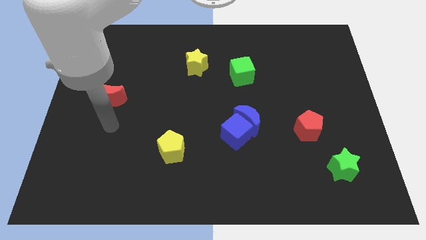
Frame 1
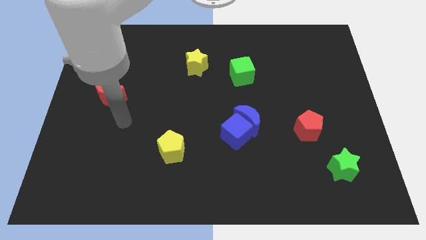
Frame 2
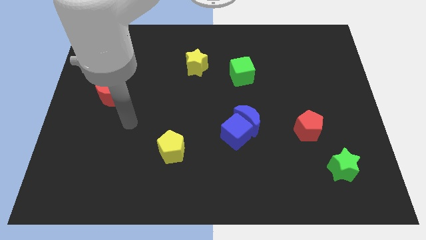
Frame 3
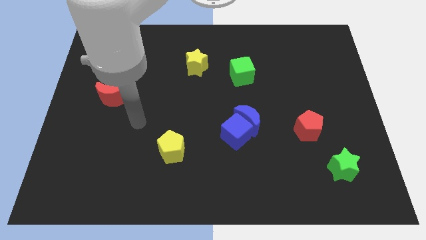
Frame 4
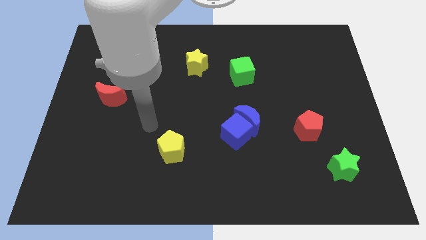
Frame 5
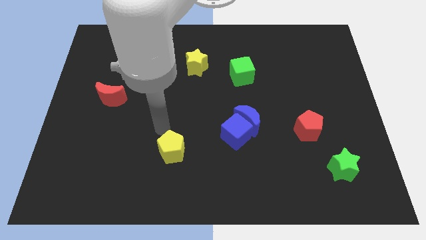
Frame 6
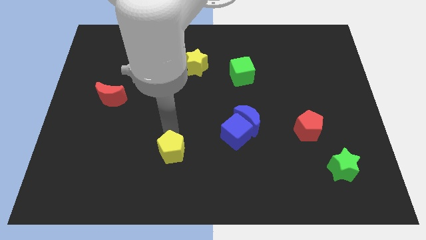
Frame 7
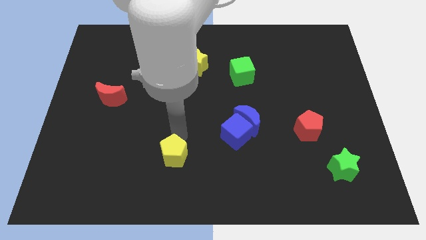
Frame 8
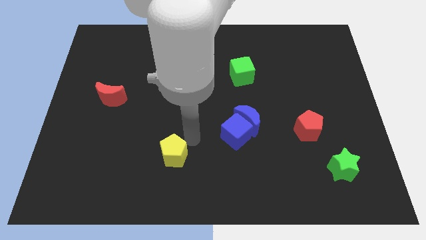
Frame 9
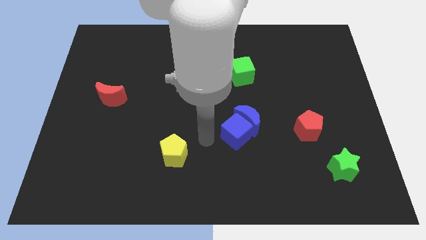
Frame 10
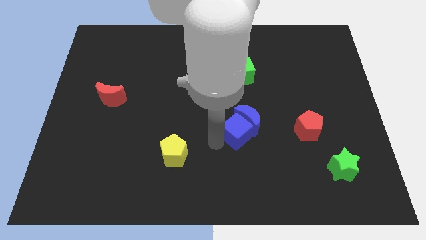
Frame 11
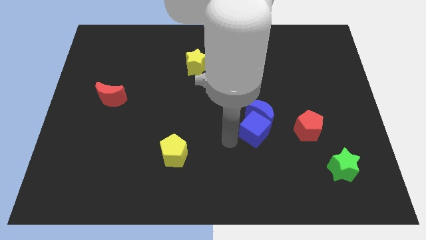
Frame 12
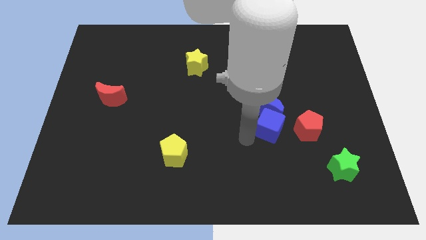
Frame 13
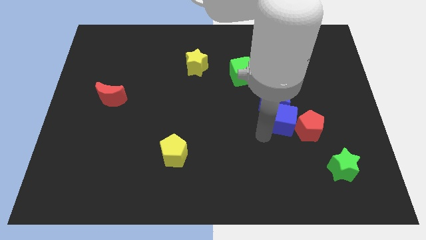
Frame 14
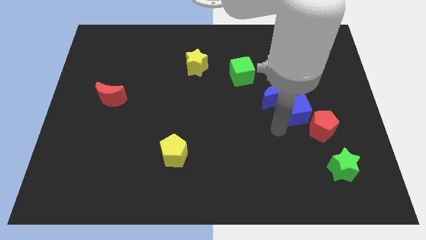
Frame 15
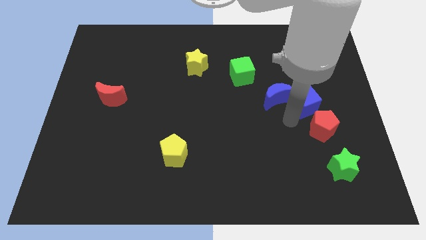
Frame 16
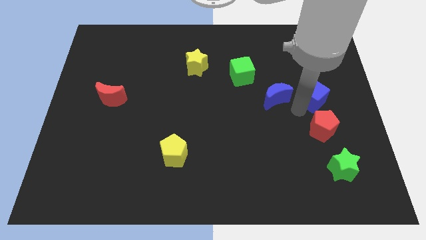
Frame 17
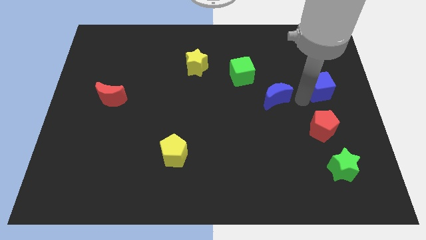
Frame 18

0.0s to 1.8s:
pull the blue moon apart from the blue cube

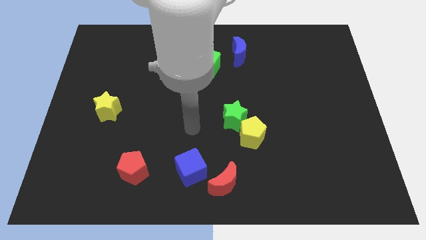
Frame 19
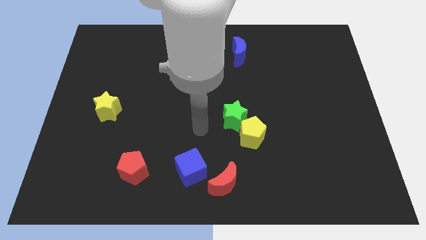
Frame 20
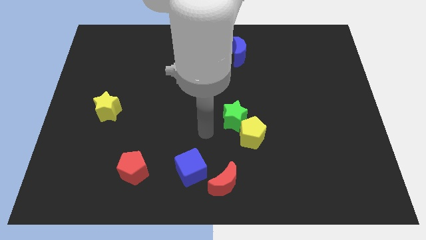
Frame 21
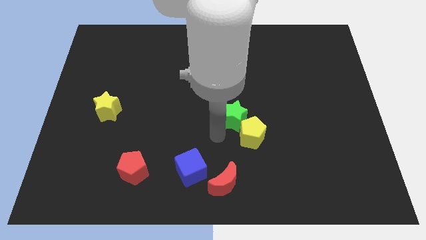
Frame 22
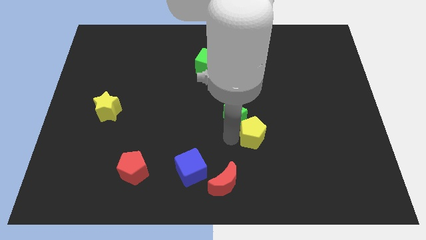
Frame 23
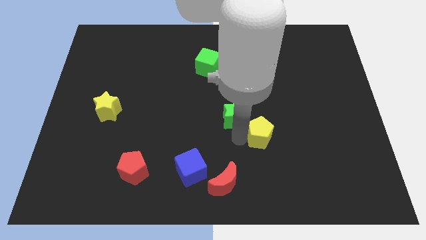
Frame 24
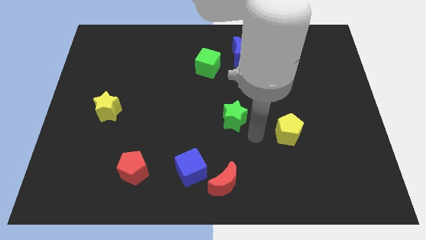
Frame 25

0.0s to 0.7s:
move the green star away from the yellow pentagon

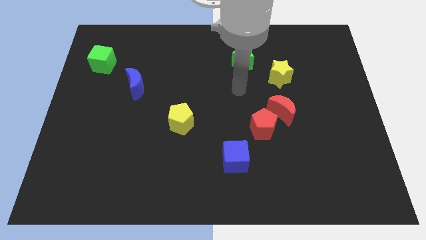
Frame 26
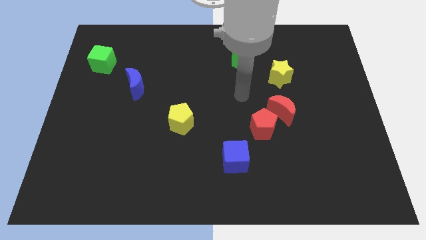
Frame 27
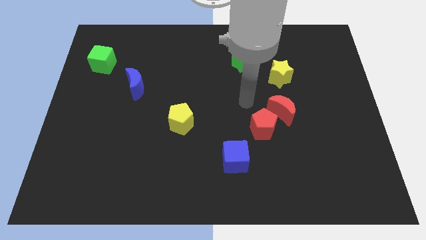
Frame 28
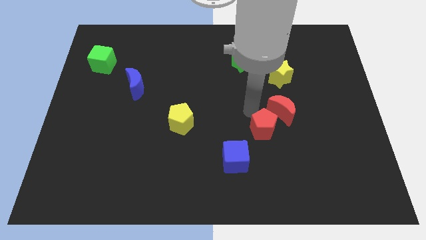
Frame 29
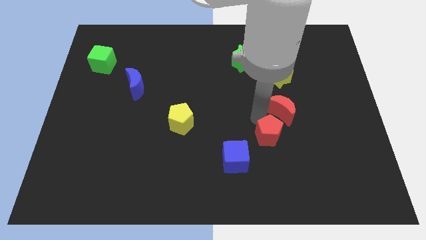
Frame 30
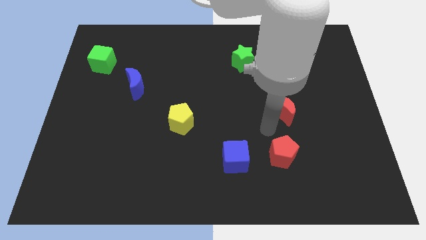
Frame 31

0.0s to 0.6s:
separate the red moon from the red pentagon

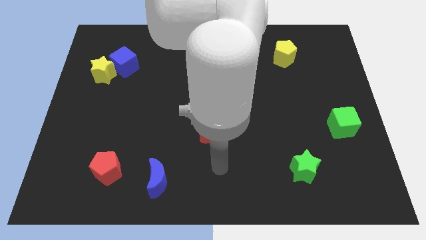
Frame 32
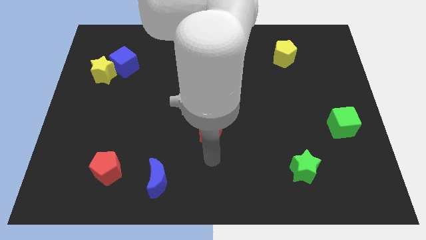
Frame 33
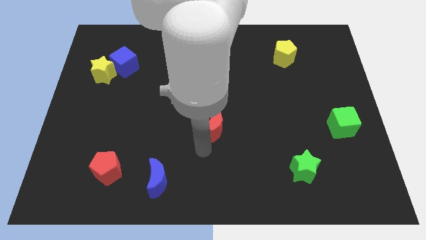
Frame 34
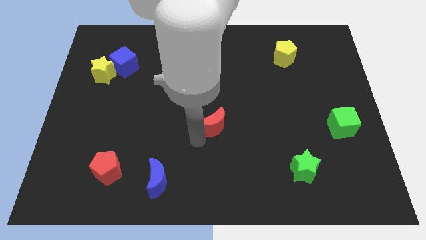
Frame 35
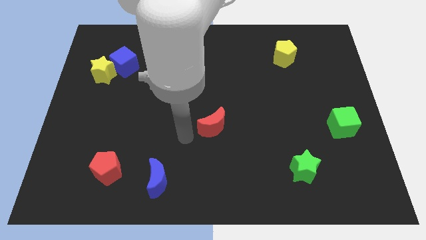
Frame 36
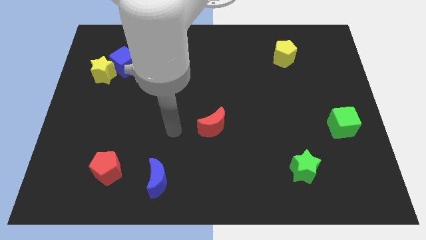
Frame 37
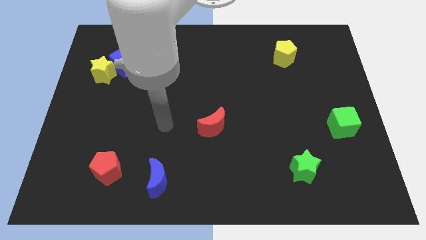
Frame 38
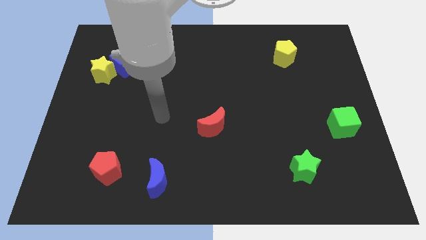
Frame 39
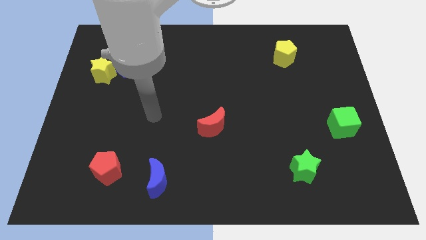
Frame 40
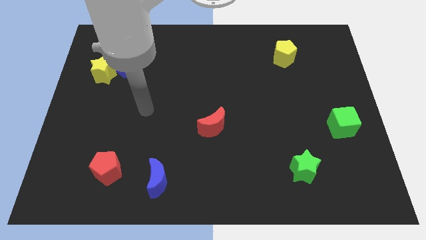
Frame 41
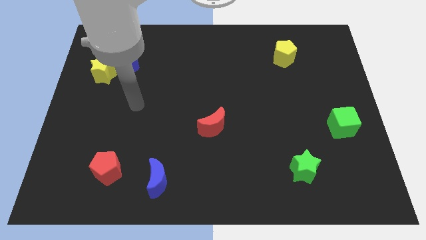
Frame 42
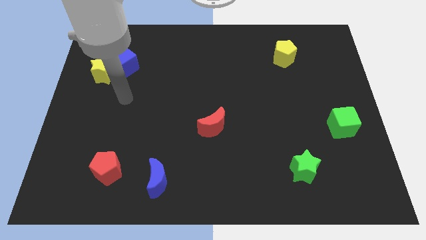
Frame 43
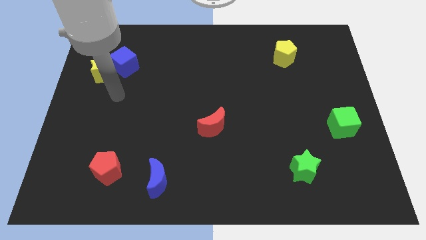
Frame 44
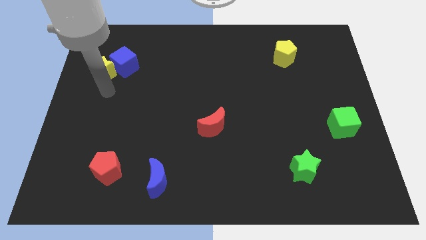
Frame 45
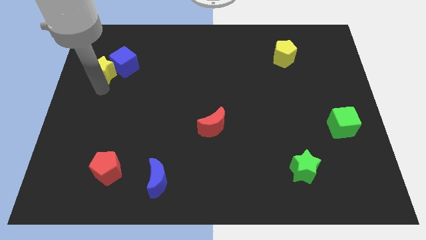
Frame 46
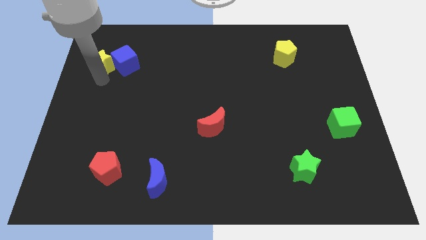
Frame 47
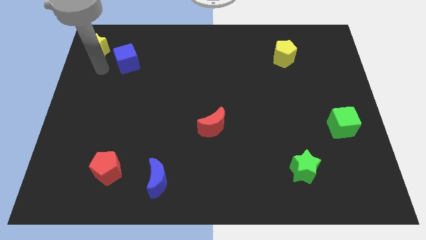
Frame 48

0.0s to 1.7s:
pull the blue cube apart from the yellow star

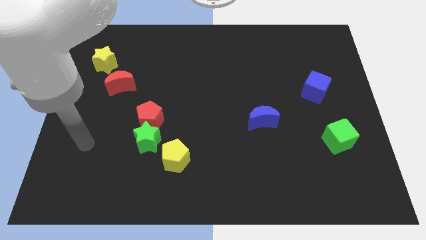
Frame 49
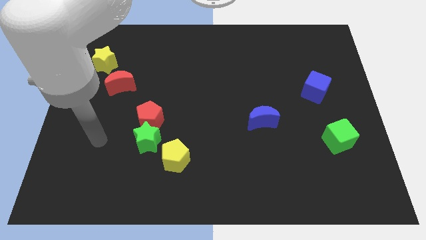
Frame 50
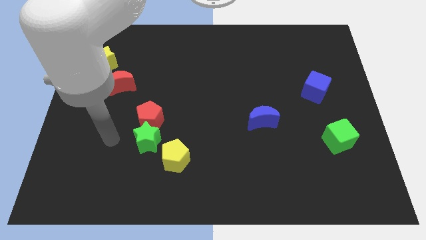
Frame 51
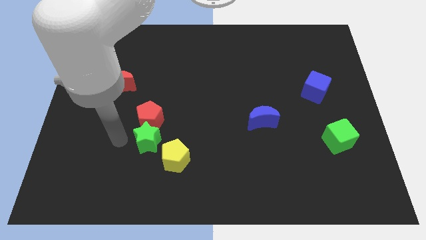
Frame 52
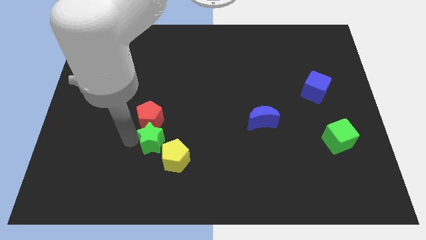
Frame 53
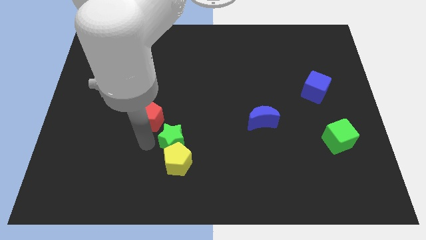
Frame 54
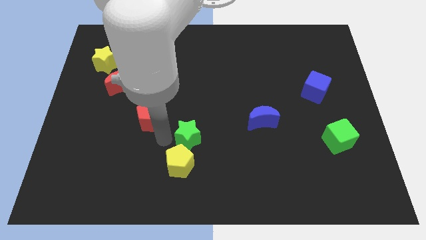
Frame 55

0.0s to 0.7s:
pull the red pentagon apart from the green star

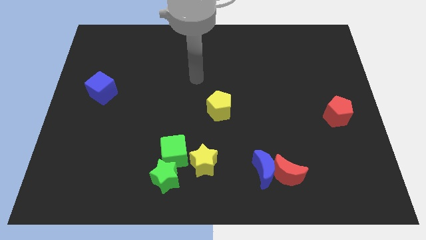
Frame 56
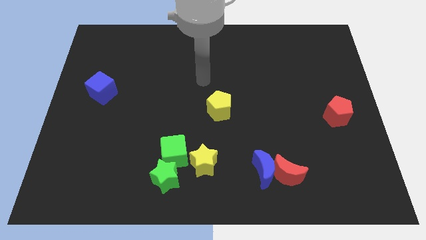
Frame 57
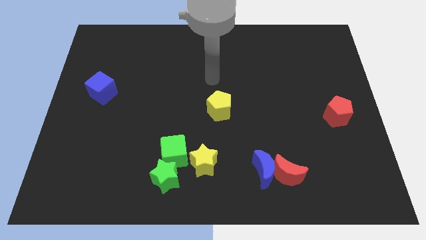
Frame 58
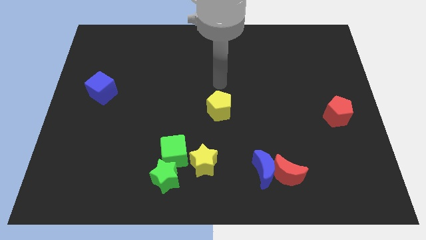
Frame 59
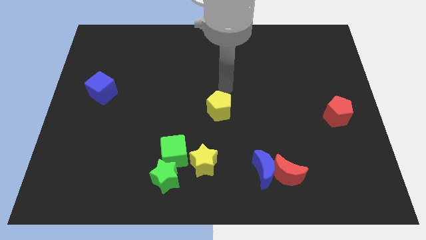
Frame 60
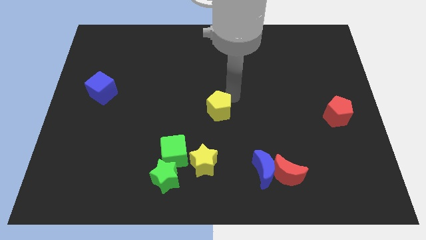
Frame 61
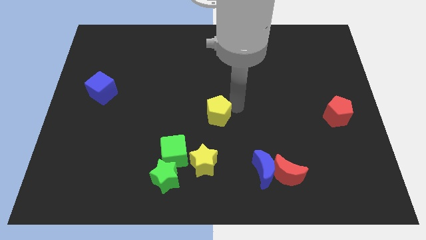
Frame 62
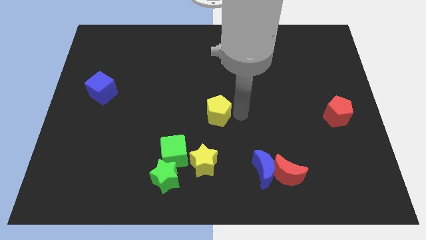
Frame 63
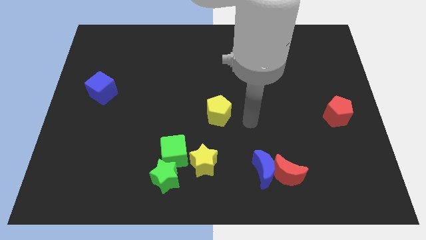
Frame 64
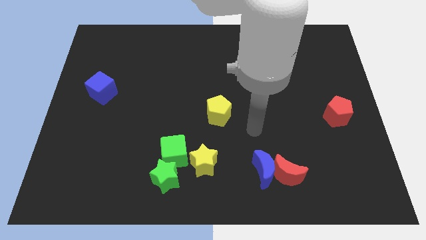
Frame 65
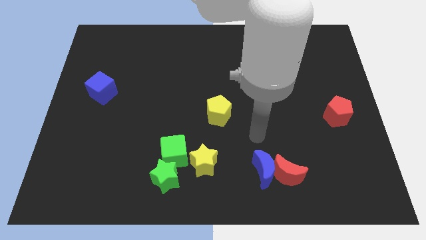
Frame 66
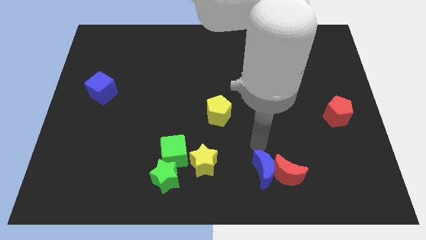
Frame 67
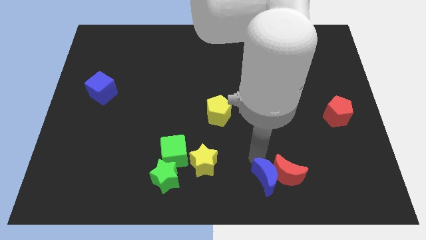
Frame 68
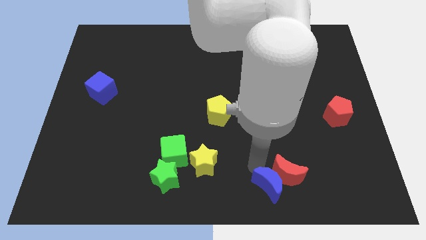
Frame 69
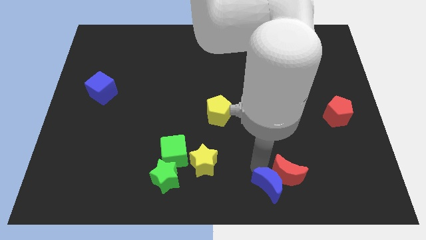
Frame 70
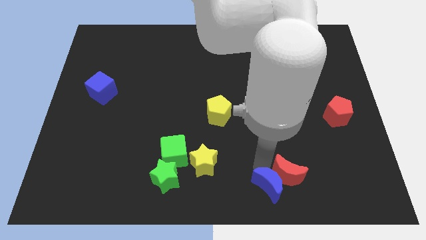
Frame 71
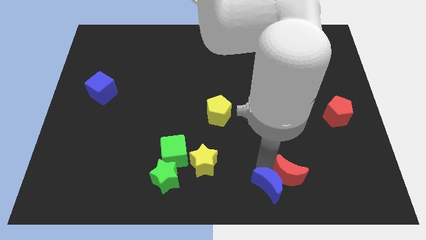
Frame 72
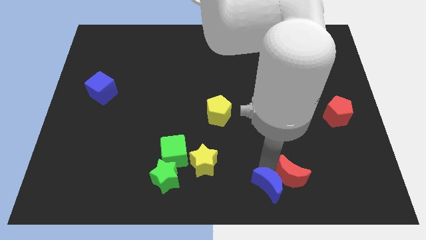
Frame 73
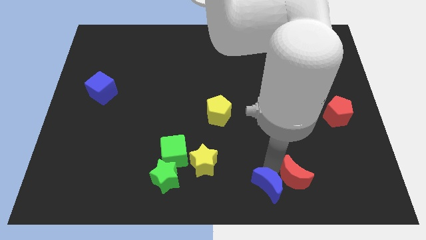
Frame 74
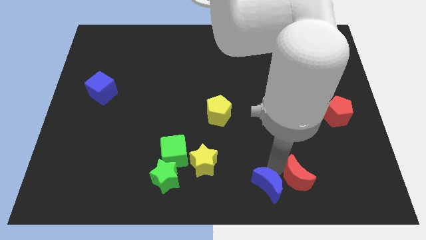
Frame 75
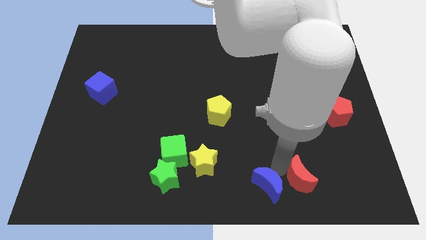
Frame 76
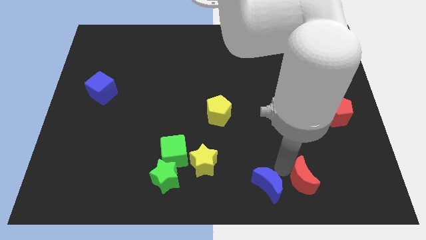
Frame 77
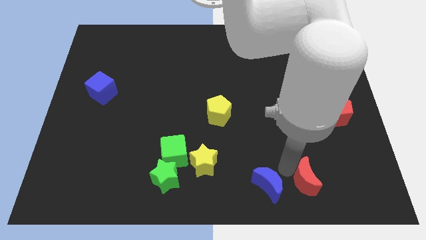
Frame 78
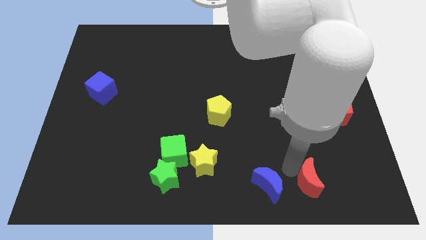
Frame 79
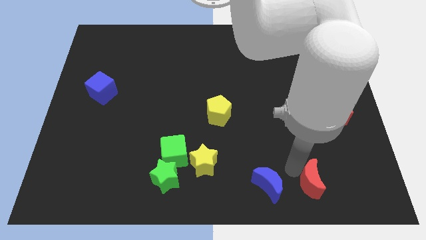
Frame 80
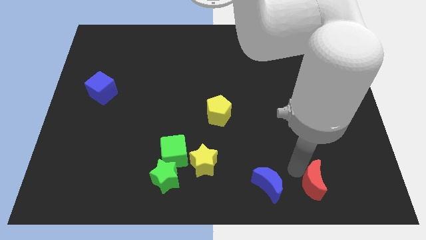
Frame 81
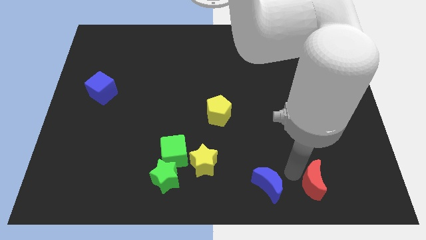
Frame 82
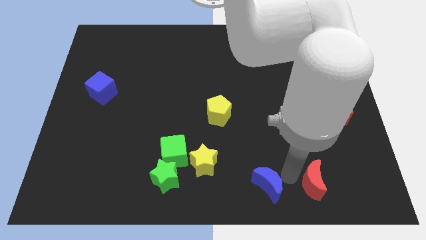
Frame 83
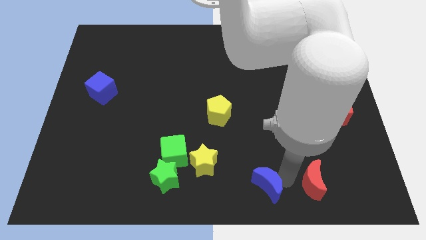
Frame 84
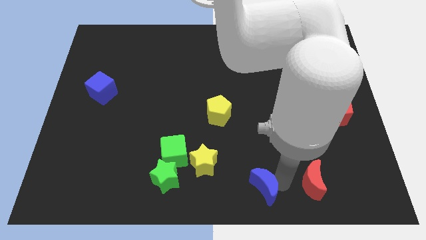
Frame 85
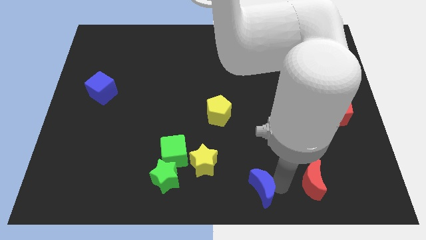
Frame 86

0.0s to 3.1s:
move the red moon away from the blue moon

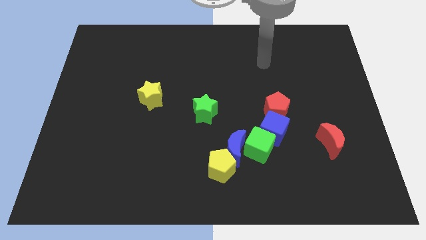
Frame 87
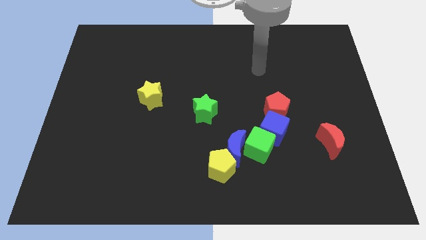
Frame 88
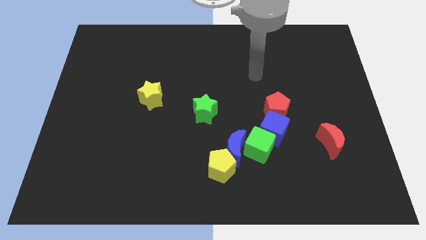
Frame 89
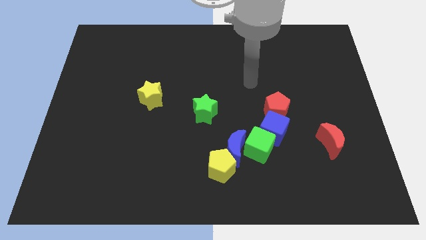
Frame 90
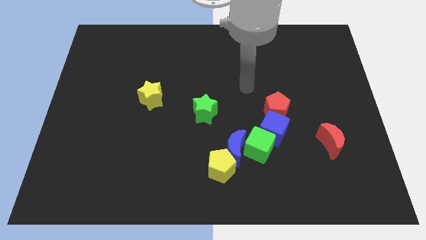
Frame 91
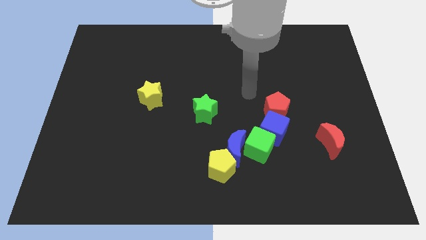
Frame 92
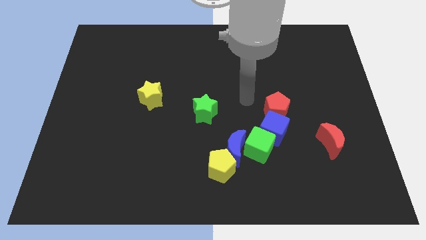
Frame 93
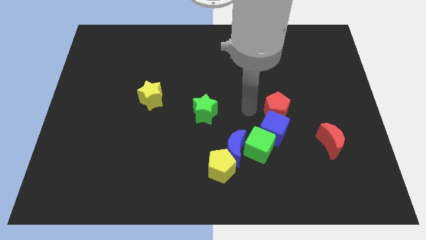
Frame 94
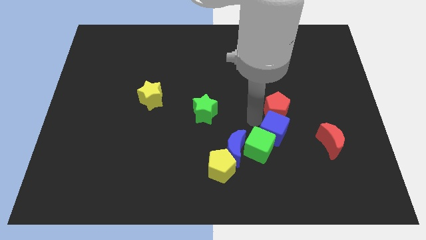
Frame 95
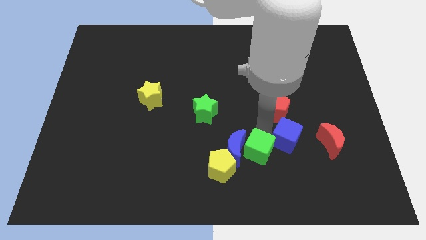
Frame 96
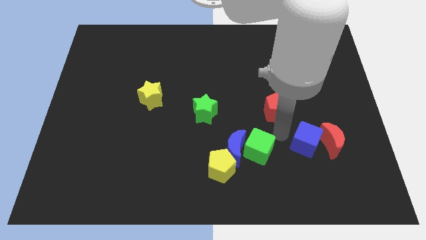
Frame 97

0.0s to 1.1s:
move the red pentagon away from the blue cube
